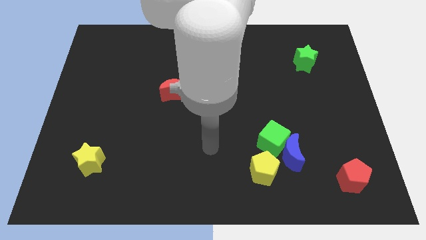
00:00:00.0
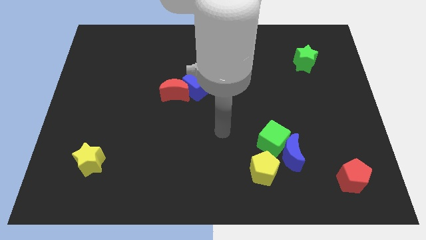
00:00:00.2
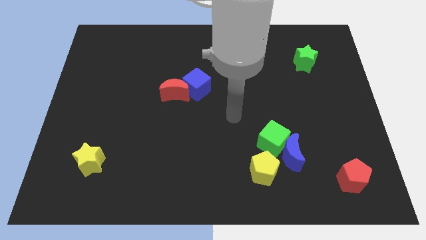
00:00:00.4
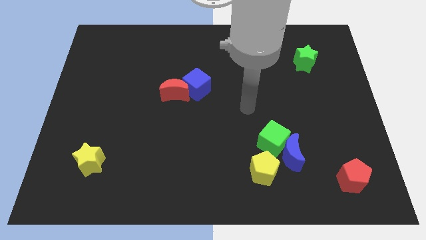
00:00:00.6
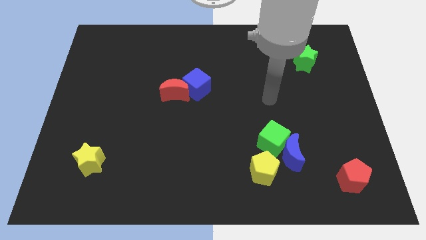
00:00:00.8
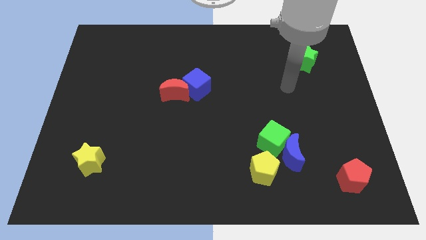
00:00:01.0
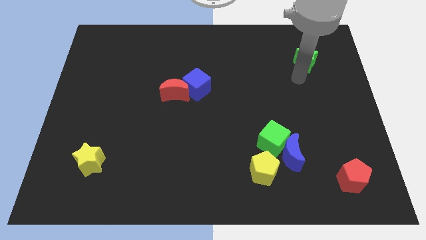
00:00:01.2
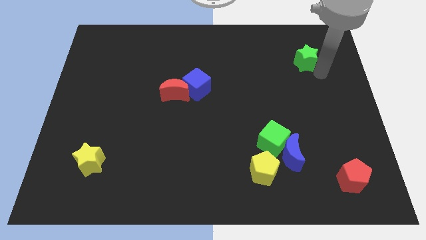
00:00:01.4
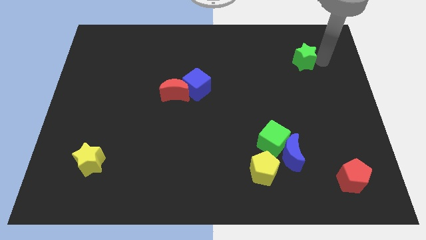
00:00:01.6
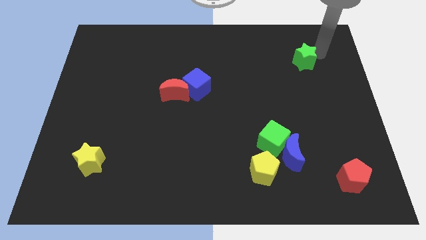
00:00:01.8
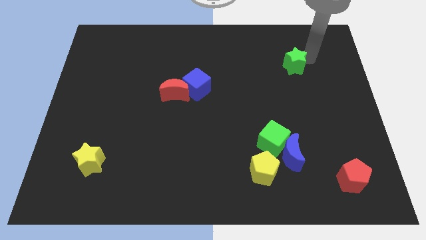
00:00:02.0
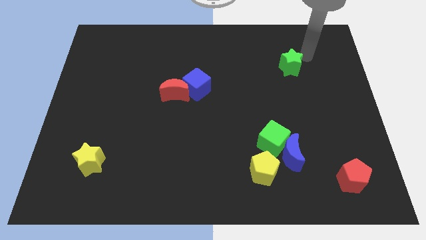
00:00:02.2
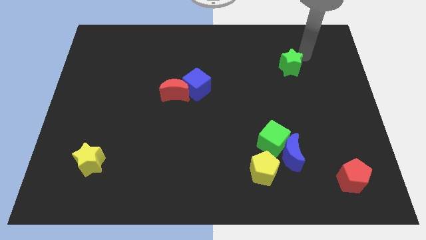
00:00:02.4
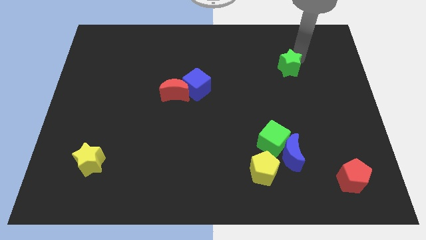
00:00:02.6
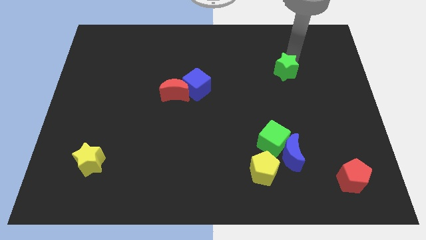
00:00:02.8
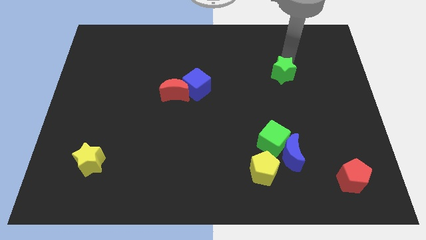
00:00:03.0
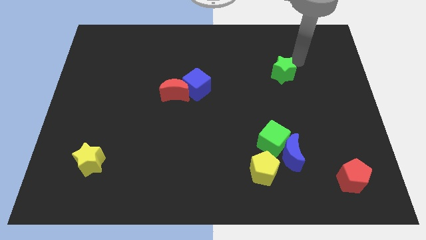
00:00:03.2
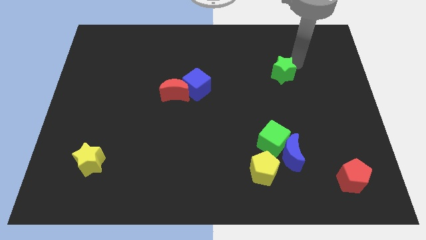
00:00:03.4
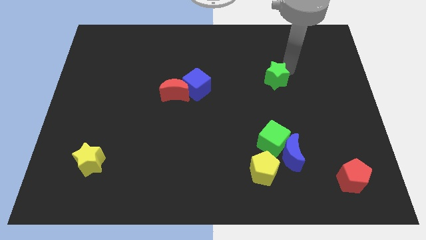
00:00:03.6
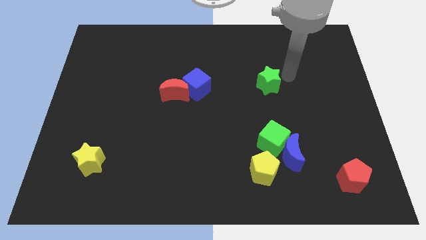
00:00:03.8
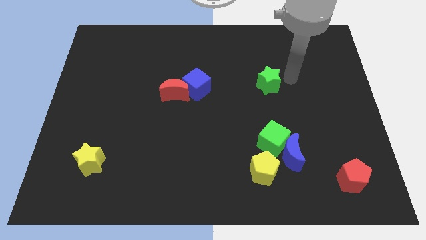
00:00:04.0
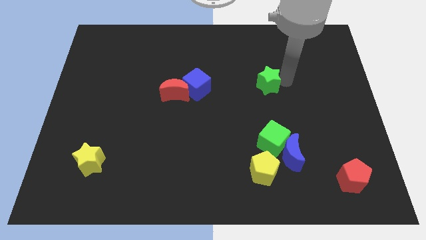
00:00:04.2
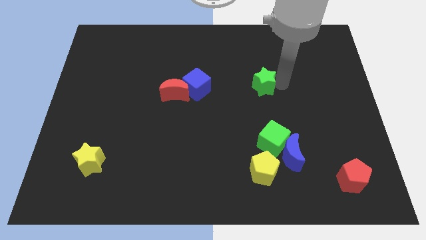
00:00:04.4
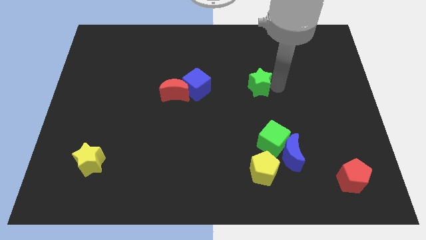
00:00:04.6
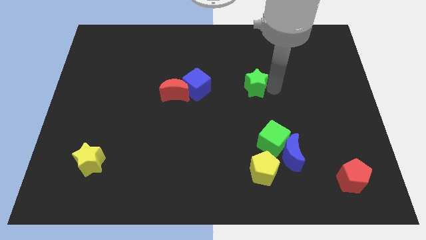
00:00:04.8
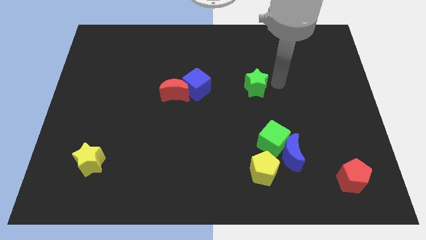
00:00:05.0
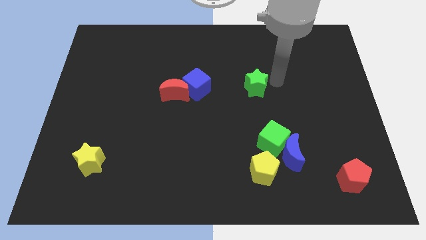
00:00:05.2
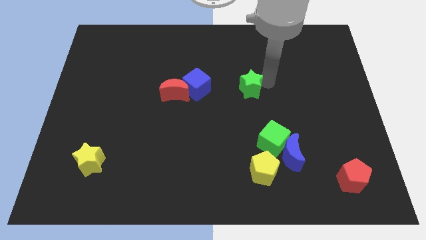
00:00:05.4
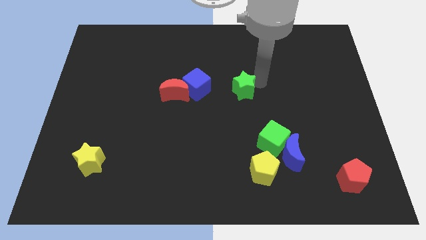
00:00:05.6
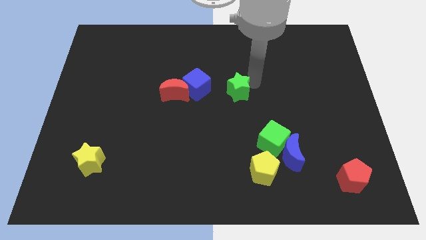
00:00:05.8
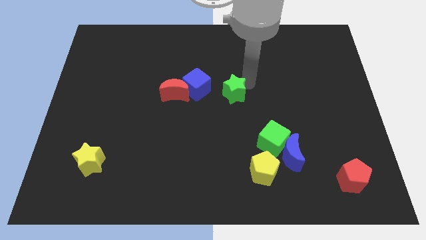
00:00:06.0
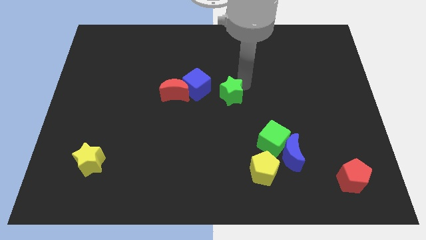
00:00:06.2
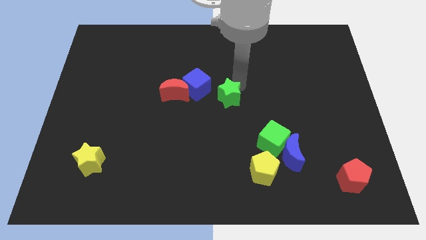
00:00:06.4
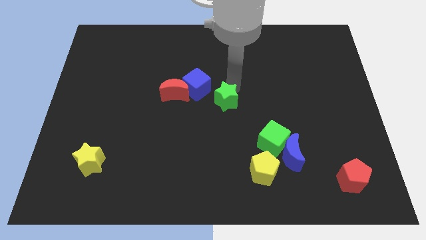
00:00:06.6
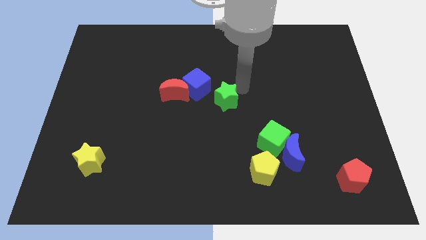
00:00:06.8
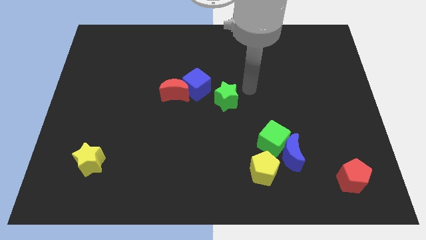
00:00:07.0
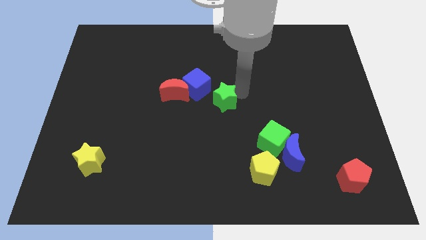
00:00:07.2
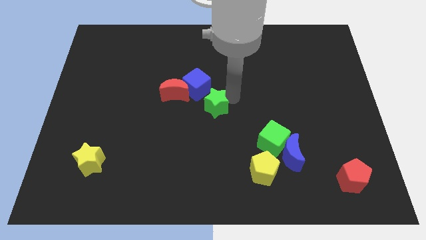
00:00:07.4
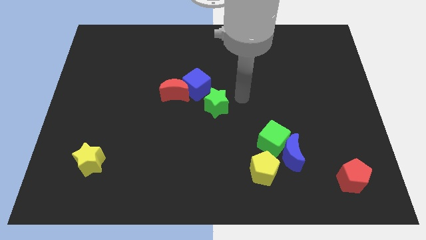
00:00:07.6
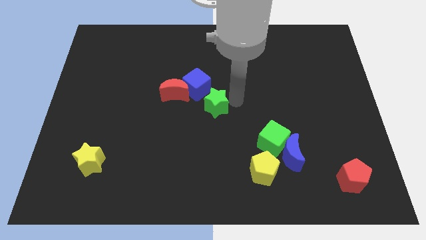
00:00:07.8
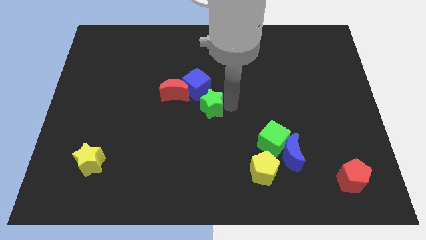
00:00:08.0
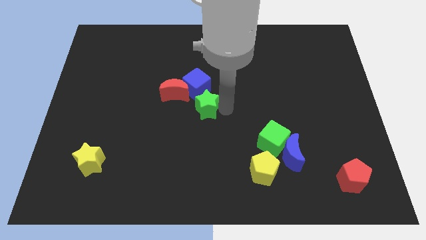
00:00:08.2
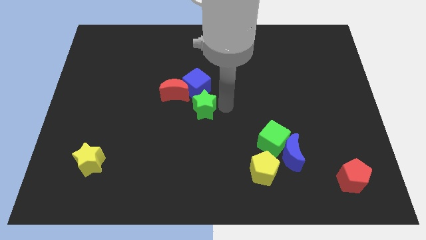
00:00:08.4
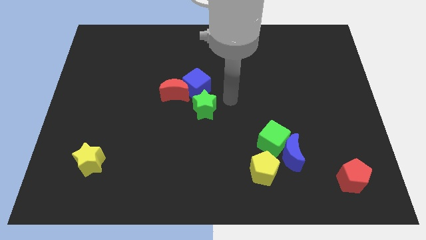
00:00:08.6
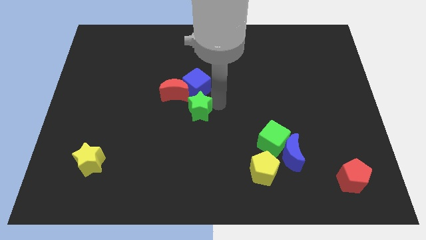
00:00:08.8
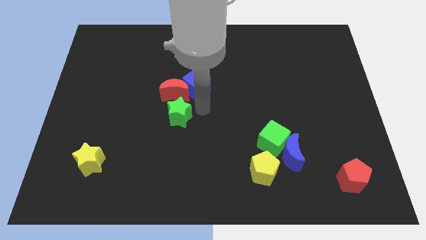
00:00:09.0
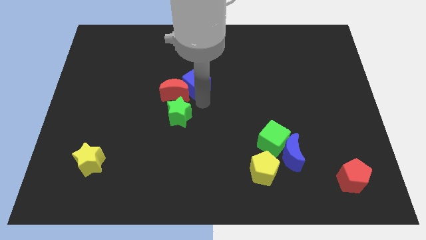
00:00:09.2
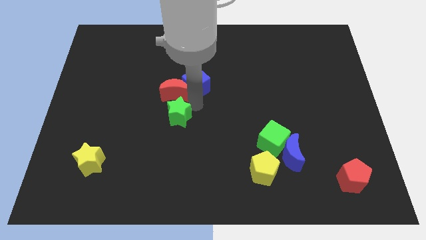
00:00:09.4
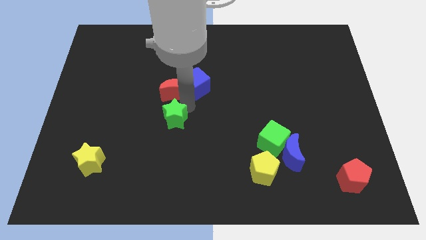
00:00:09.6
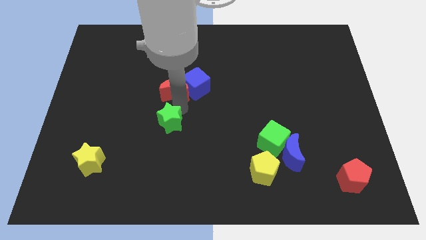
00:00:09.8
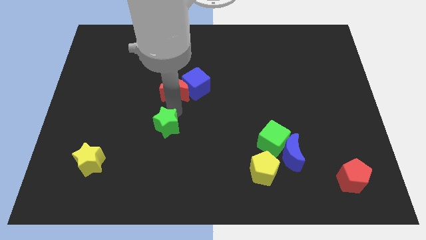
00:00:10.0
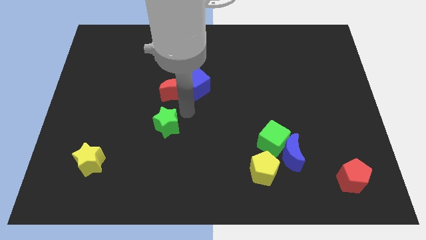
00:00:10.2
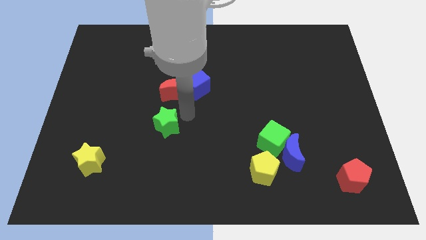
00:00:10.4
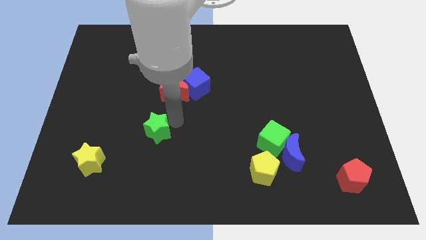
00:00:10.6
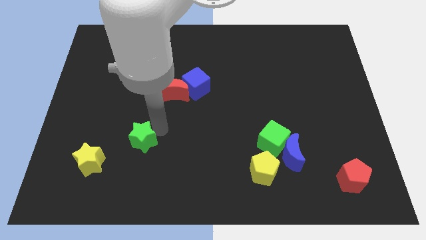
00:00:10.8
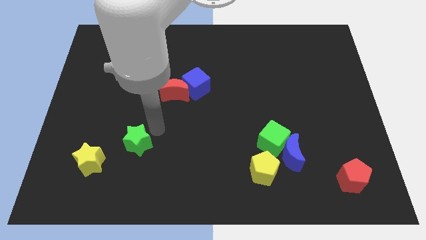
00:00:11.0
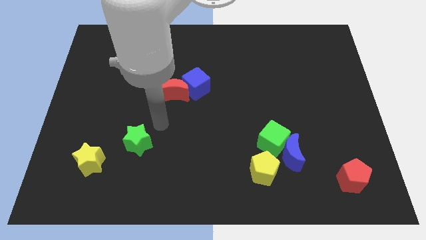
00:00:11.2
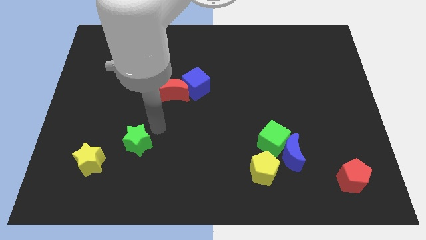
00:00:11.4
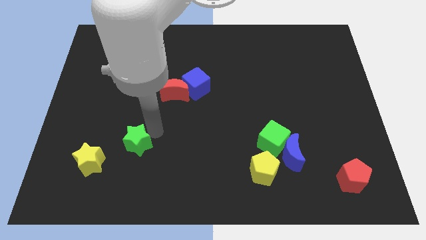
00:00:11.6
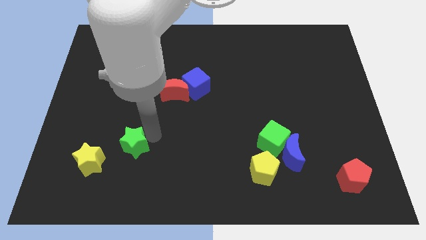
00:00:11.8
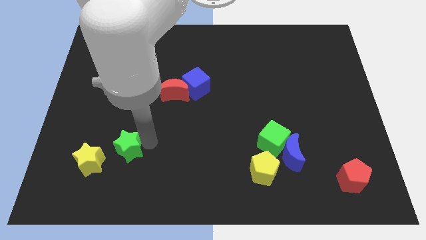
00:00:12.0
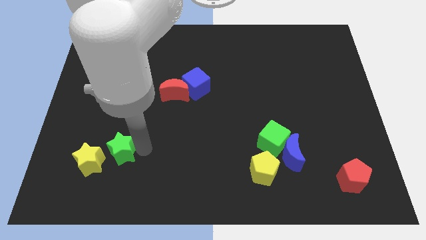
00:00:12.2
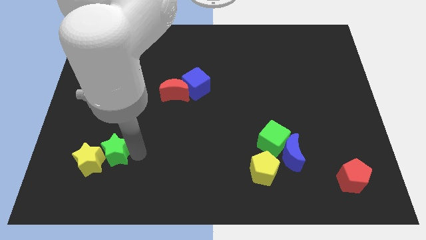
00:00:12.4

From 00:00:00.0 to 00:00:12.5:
move the green star towards the yellow star
